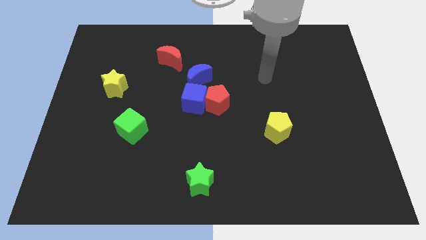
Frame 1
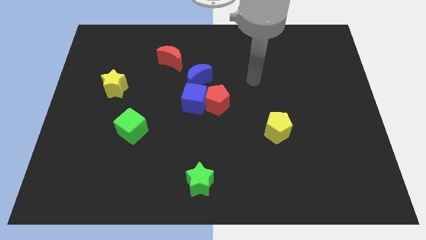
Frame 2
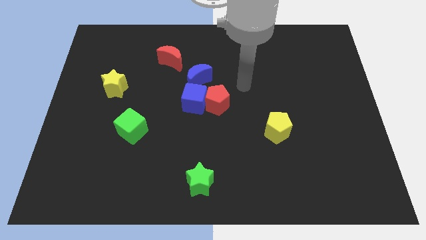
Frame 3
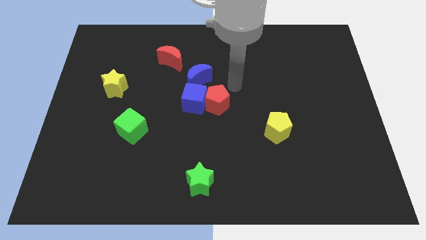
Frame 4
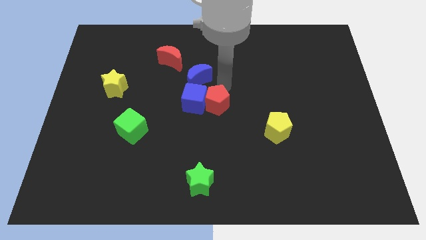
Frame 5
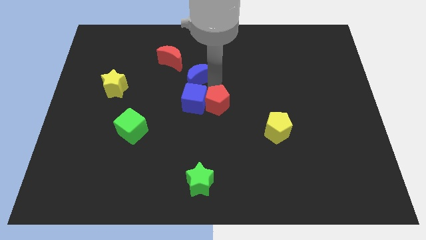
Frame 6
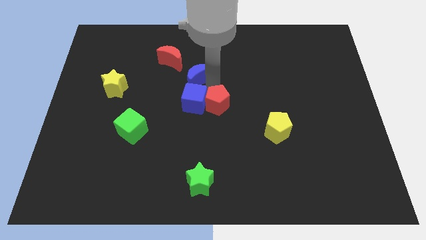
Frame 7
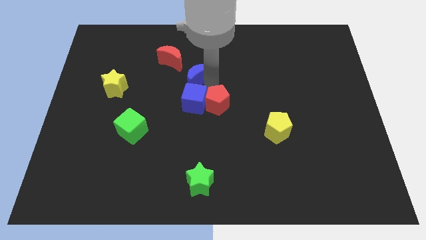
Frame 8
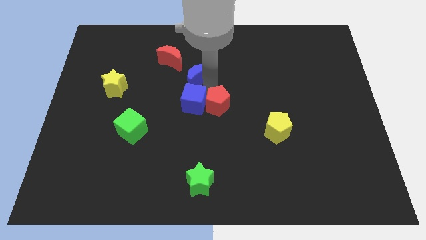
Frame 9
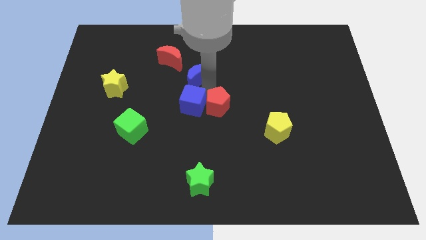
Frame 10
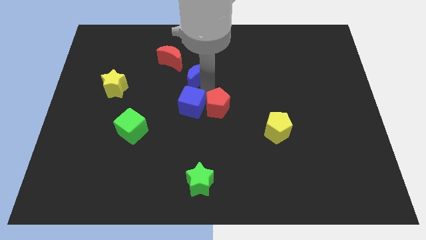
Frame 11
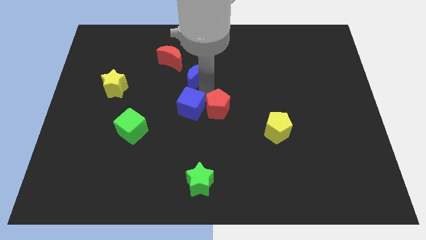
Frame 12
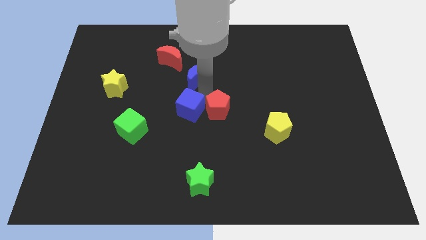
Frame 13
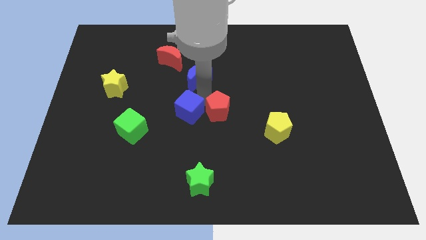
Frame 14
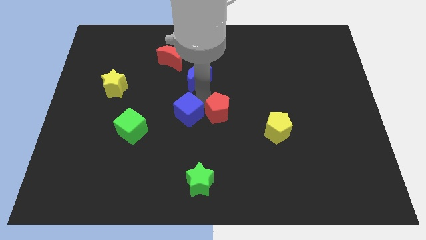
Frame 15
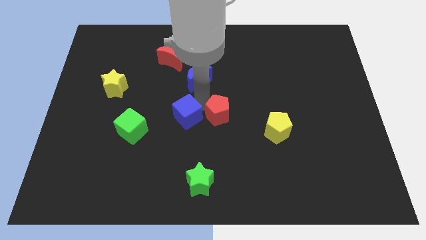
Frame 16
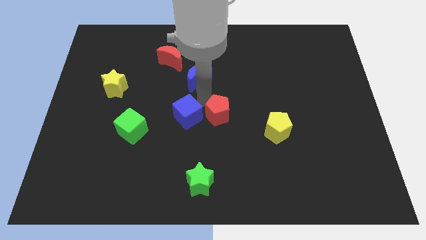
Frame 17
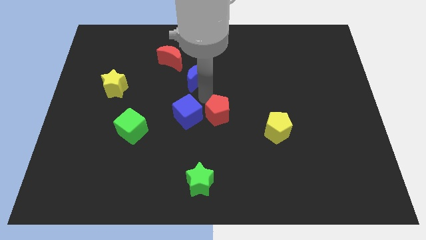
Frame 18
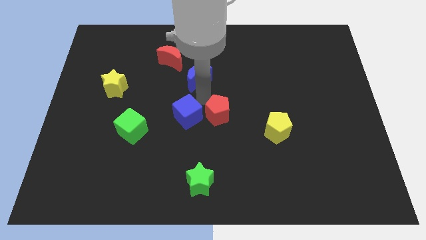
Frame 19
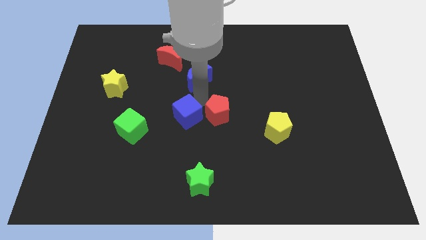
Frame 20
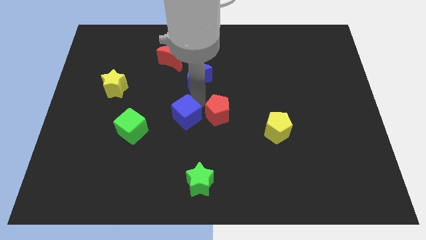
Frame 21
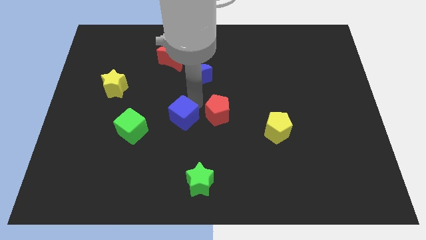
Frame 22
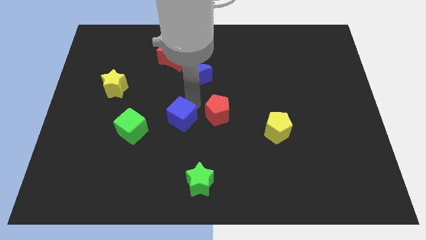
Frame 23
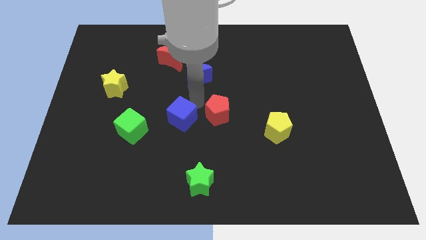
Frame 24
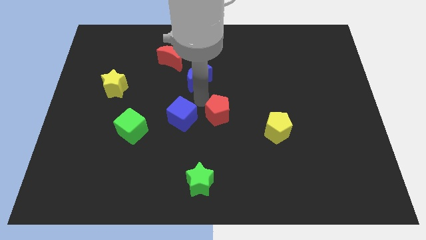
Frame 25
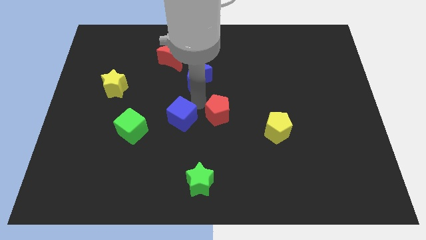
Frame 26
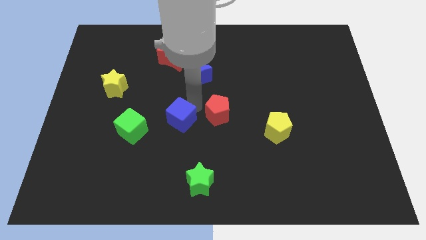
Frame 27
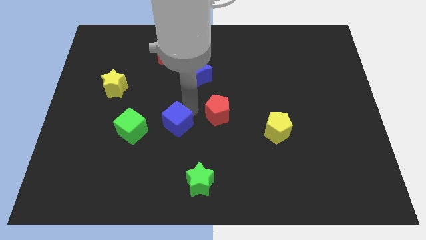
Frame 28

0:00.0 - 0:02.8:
separate the blue cube from the red pentagon and blue moon

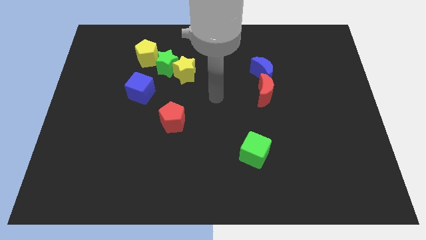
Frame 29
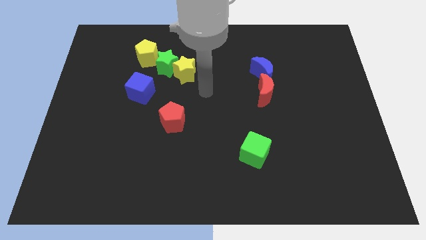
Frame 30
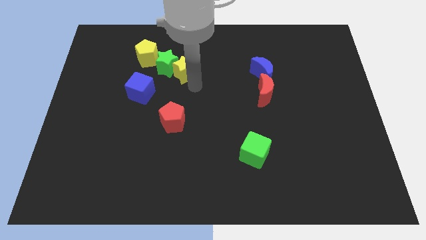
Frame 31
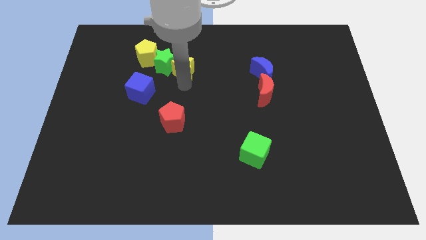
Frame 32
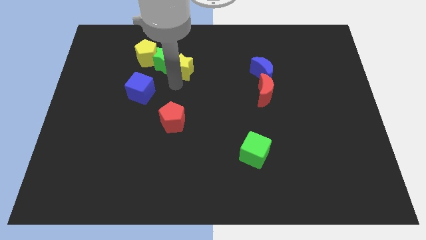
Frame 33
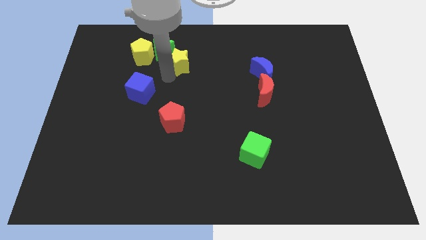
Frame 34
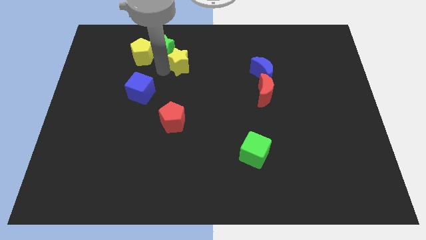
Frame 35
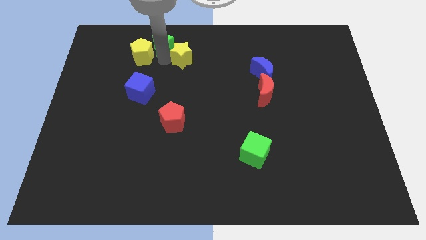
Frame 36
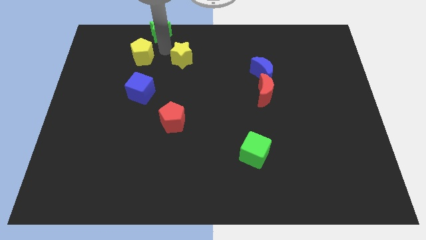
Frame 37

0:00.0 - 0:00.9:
separate the yellow star from the green star

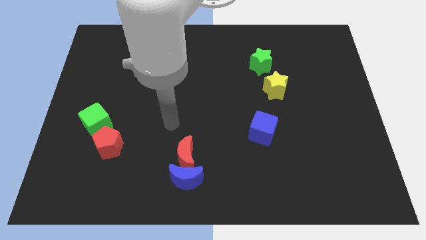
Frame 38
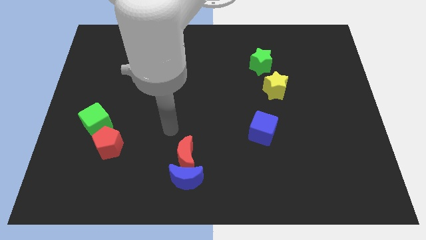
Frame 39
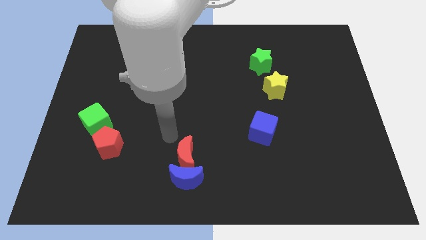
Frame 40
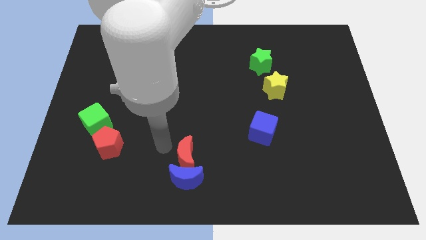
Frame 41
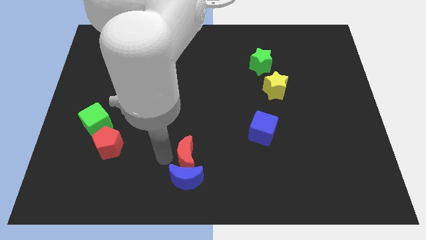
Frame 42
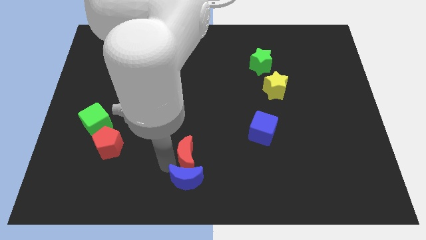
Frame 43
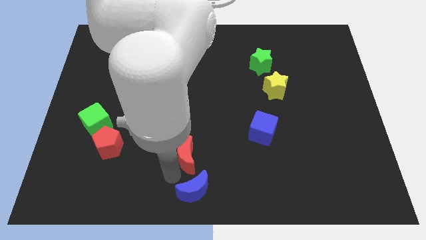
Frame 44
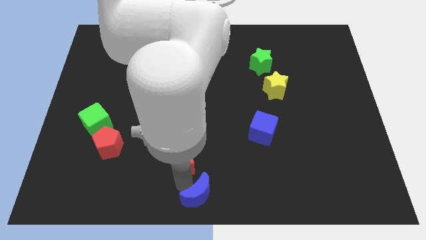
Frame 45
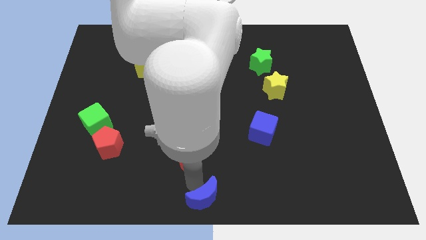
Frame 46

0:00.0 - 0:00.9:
move the red moon away from the blue moon

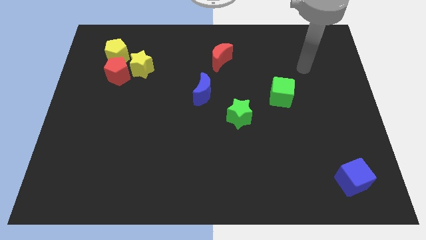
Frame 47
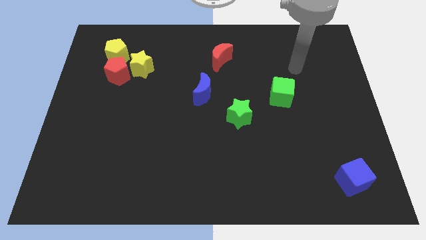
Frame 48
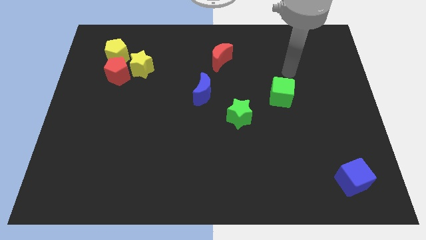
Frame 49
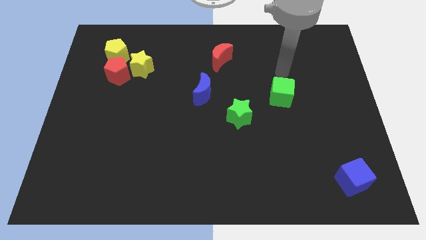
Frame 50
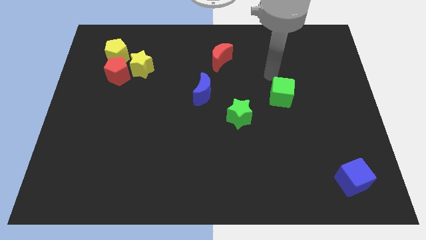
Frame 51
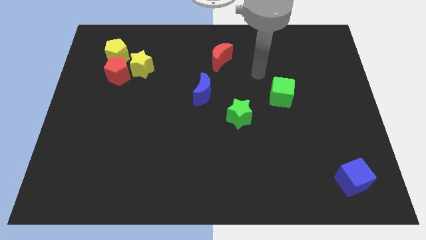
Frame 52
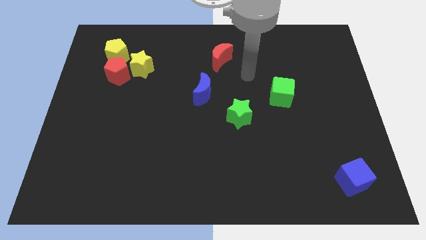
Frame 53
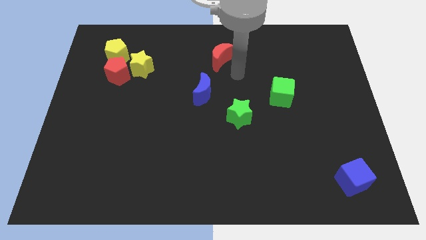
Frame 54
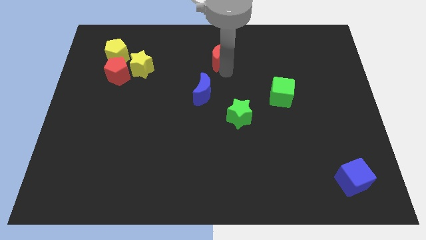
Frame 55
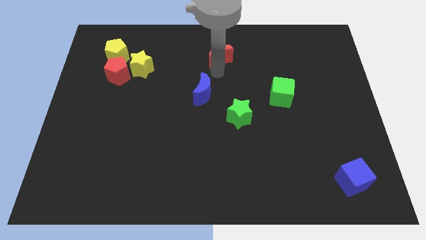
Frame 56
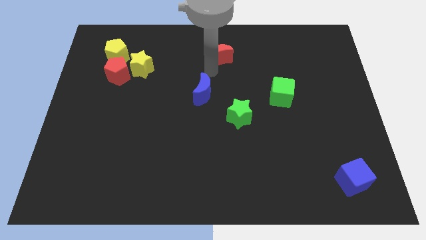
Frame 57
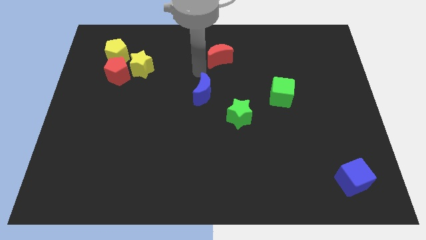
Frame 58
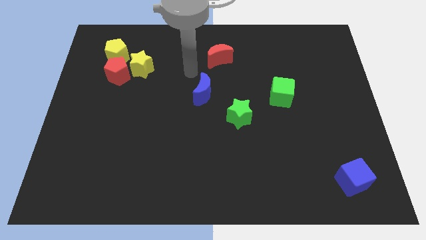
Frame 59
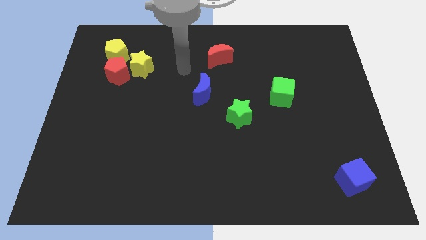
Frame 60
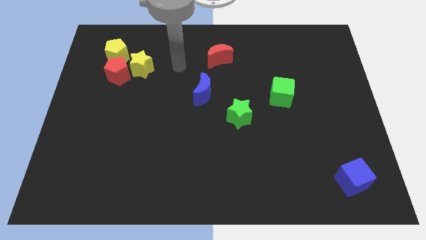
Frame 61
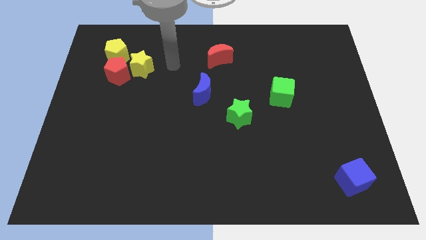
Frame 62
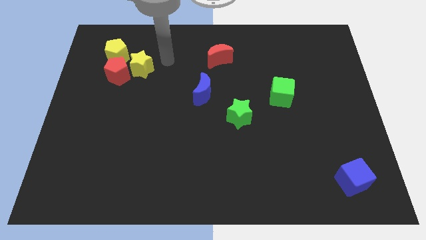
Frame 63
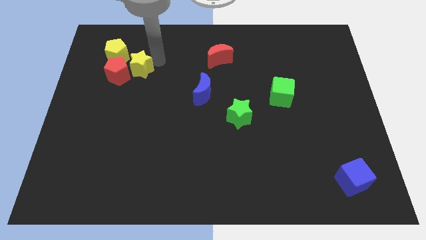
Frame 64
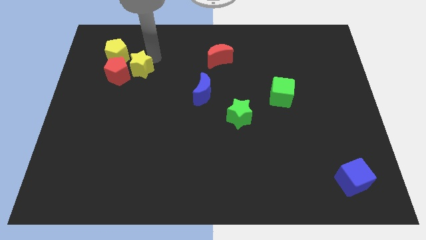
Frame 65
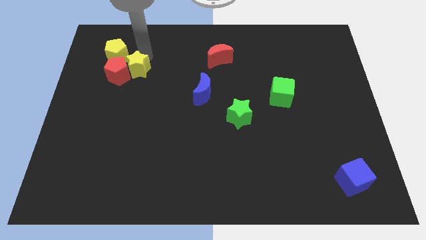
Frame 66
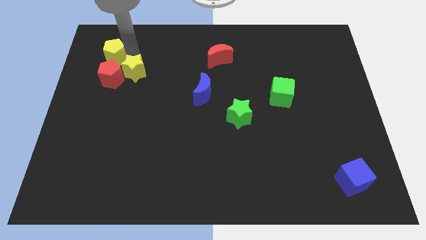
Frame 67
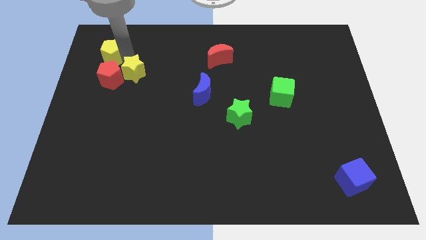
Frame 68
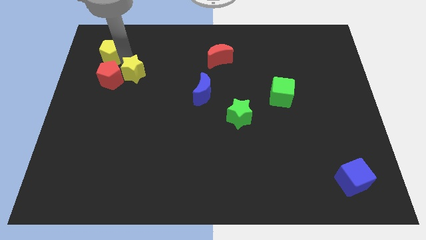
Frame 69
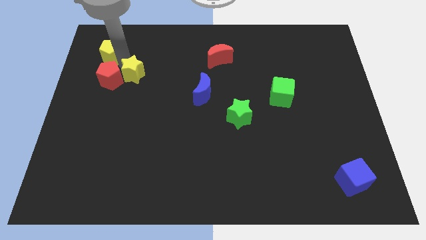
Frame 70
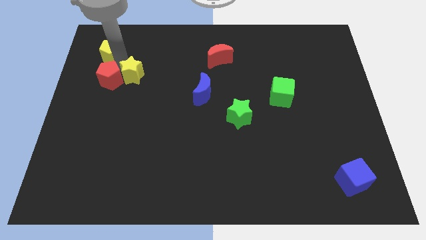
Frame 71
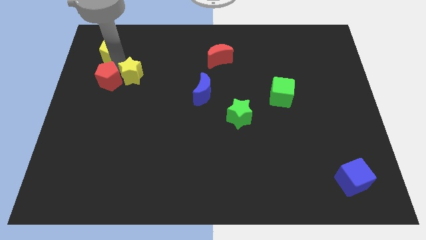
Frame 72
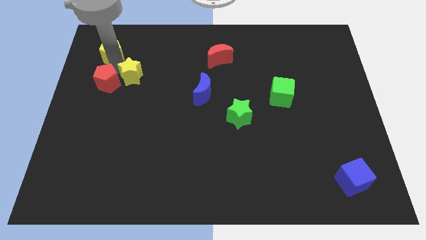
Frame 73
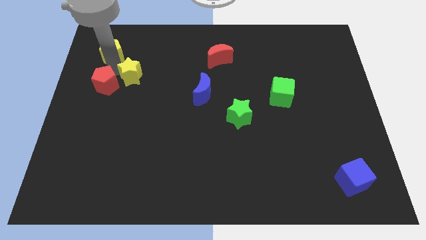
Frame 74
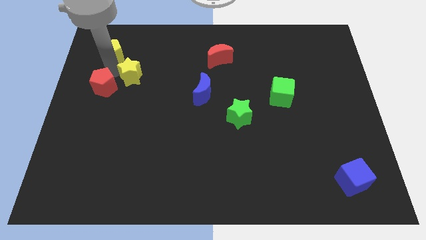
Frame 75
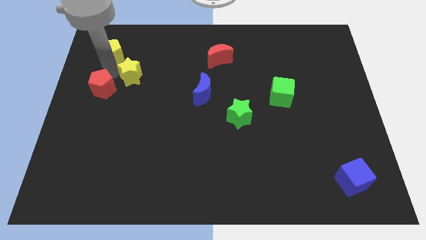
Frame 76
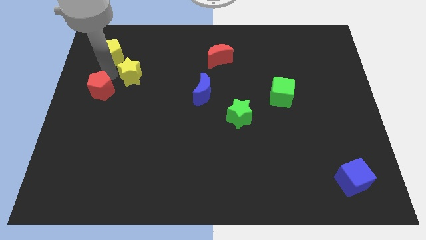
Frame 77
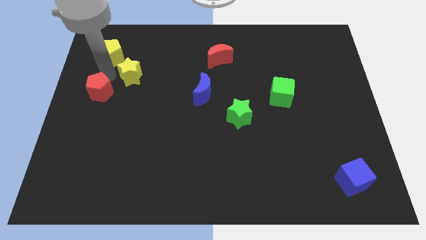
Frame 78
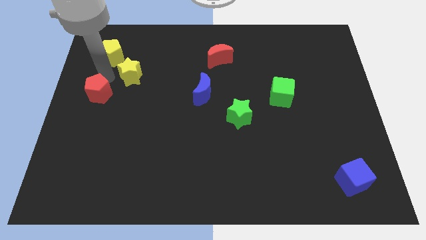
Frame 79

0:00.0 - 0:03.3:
pull the red pentagon apart from the yellow star and yellow pentagon

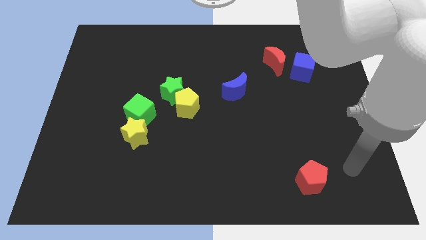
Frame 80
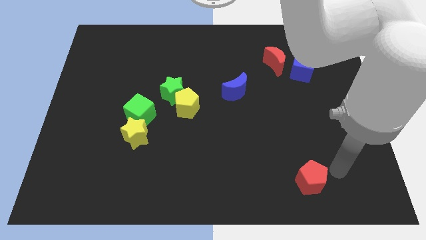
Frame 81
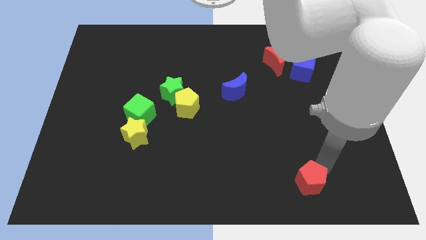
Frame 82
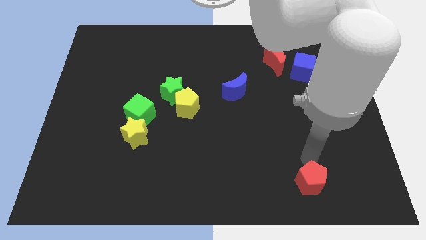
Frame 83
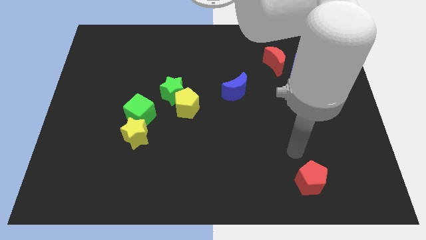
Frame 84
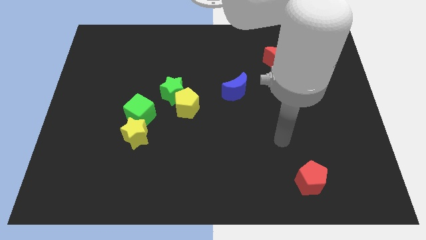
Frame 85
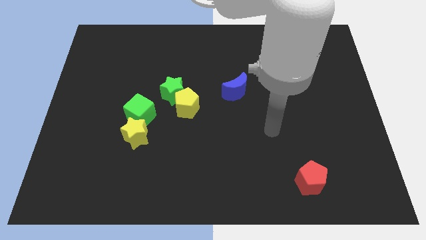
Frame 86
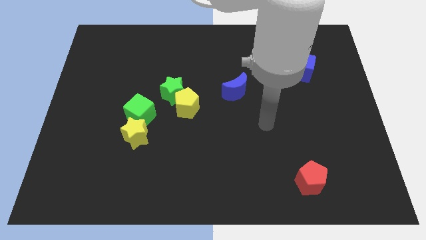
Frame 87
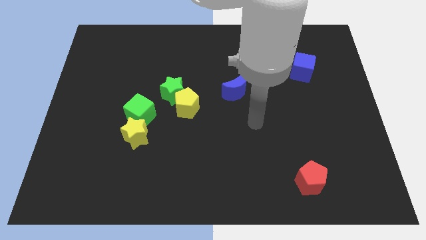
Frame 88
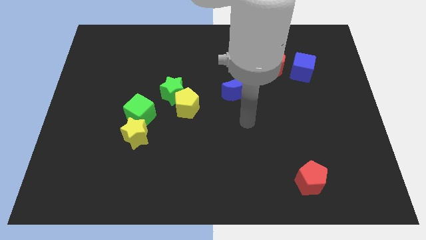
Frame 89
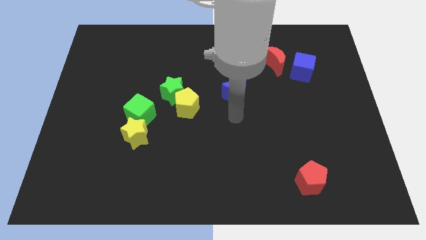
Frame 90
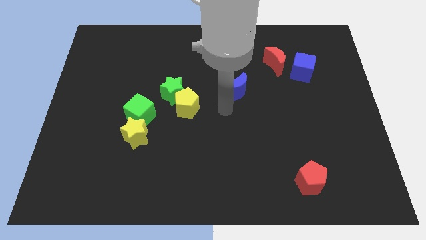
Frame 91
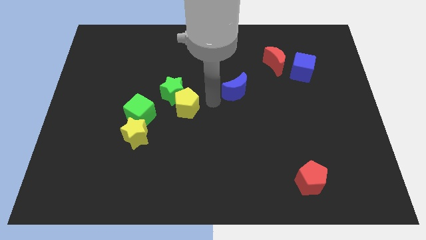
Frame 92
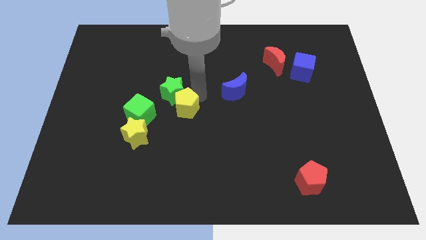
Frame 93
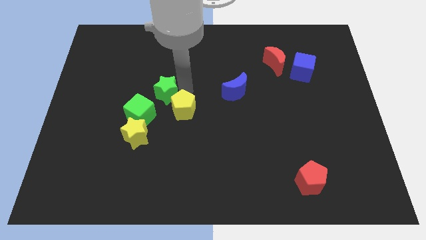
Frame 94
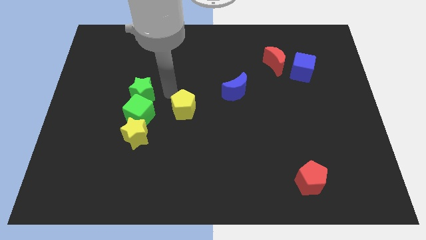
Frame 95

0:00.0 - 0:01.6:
pull the yellow pentagon apart from the green star
